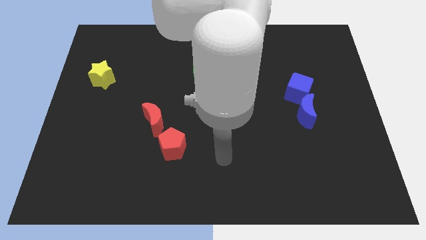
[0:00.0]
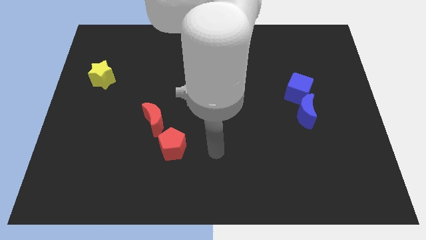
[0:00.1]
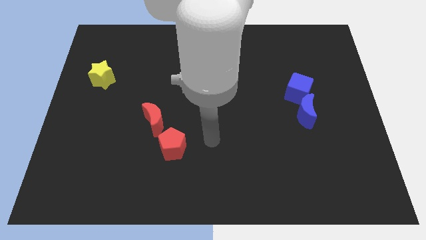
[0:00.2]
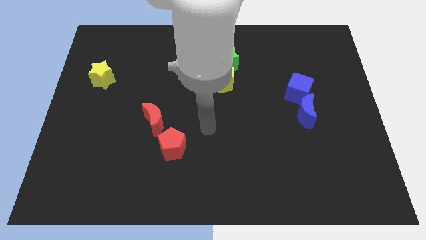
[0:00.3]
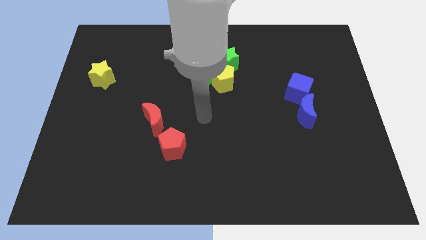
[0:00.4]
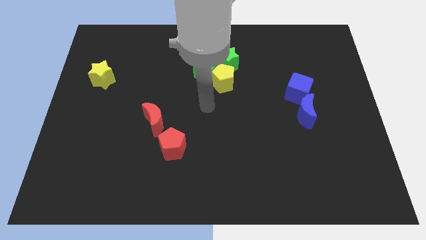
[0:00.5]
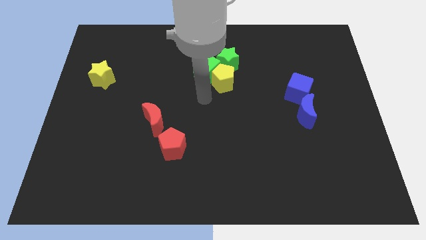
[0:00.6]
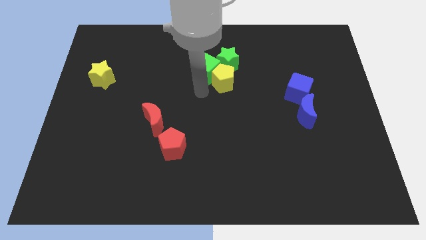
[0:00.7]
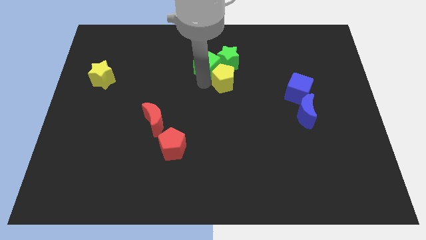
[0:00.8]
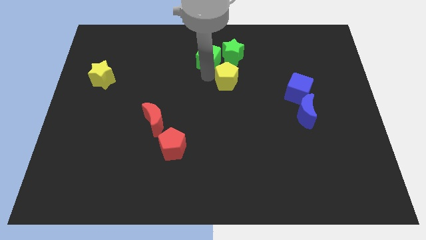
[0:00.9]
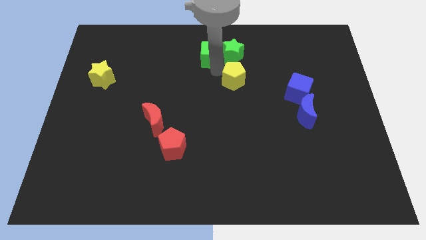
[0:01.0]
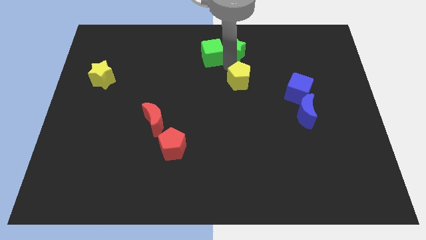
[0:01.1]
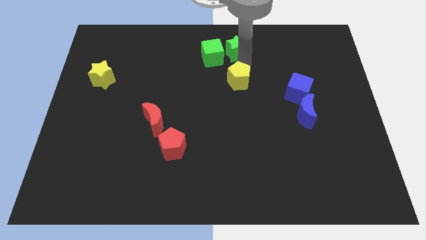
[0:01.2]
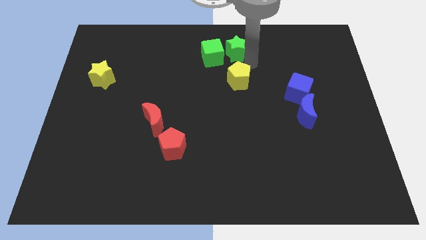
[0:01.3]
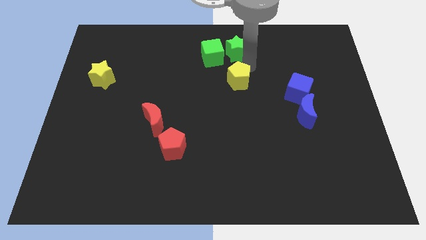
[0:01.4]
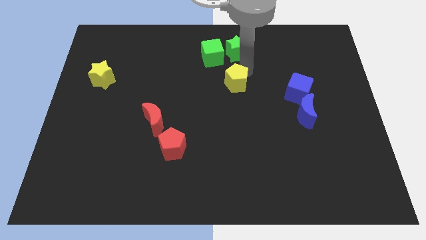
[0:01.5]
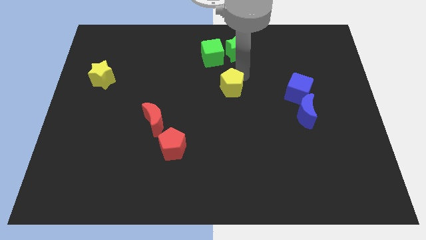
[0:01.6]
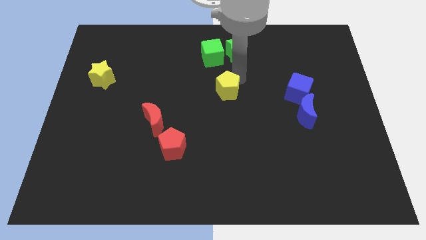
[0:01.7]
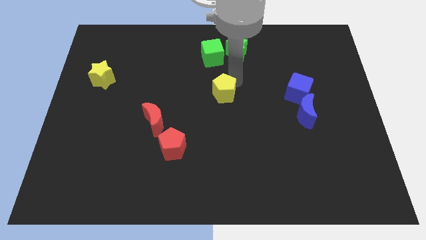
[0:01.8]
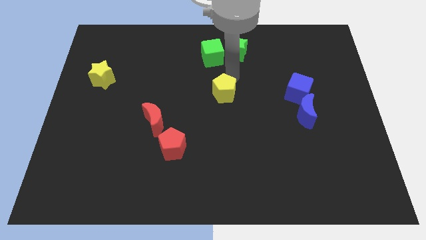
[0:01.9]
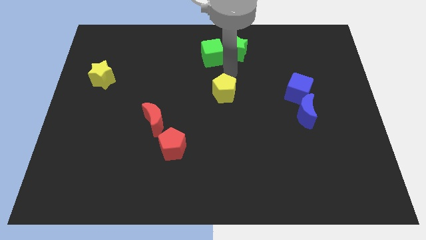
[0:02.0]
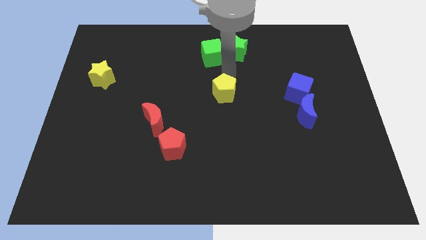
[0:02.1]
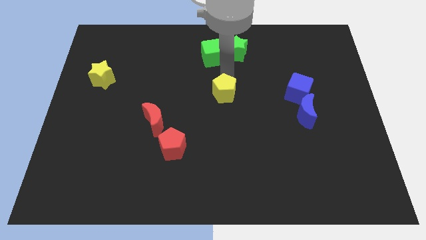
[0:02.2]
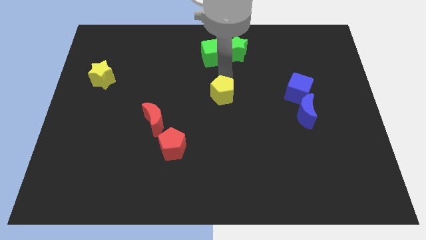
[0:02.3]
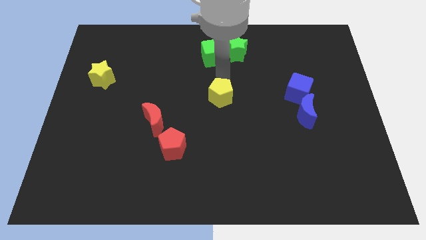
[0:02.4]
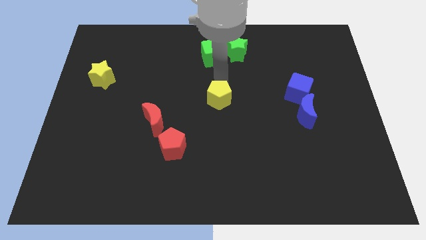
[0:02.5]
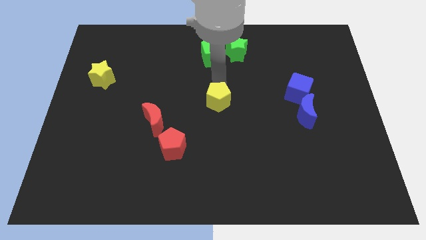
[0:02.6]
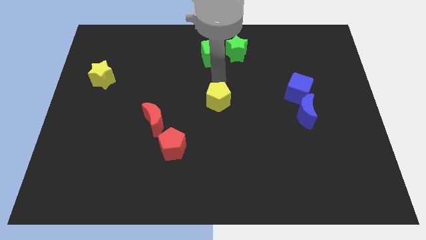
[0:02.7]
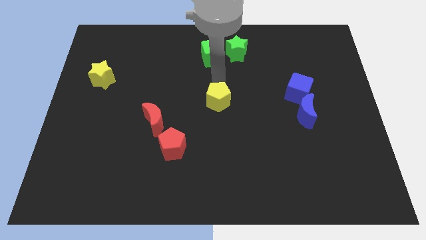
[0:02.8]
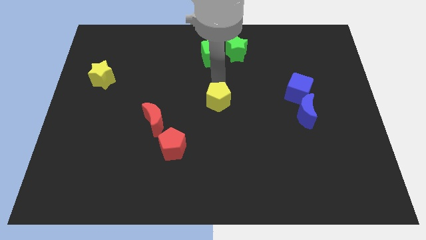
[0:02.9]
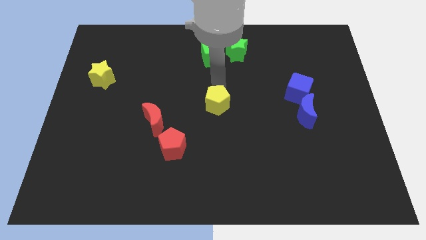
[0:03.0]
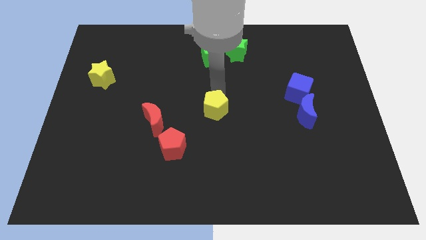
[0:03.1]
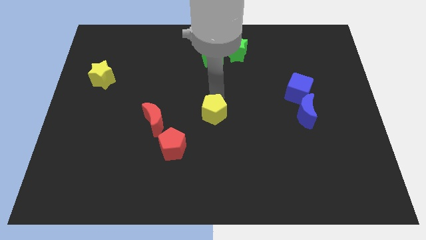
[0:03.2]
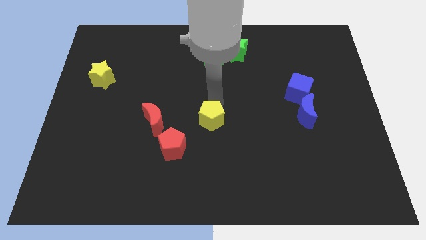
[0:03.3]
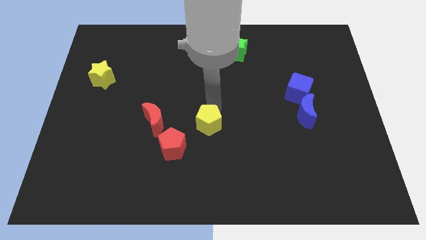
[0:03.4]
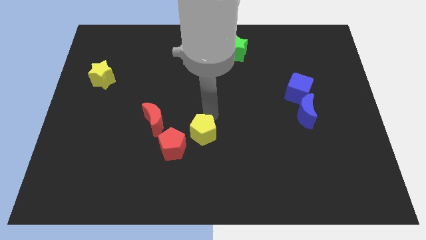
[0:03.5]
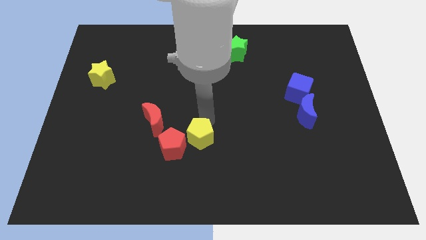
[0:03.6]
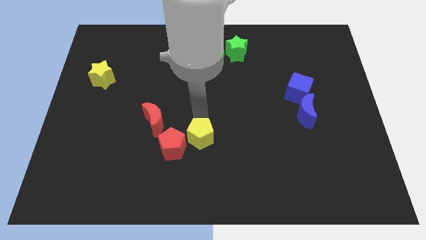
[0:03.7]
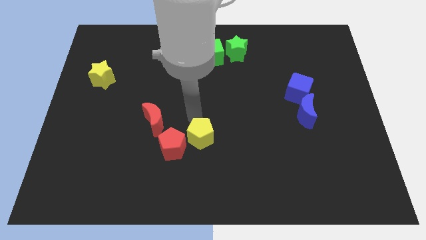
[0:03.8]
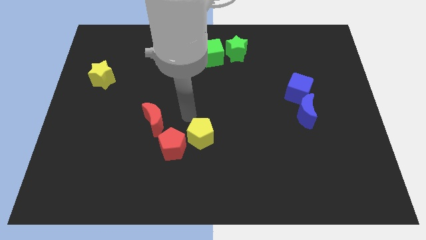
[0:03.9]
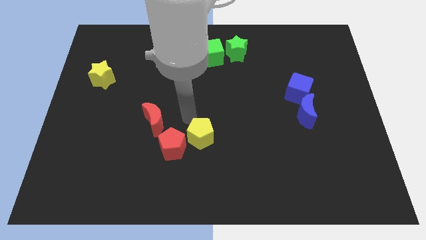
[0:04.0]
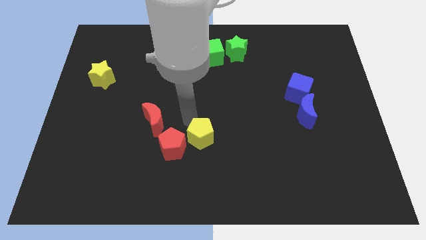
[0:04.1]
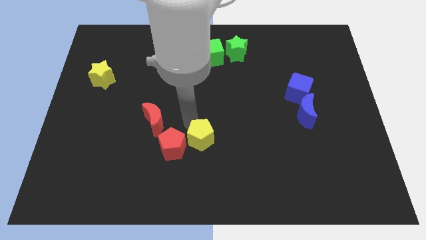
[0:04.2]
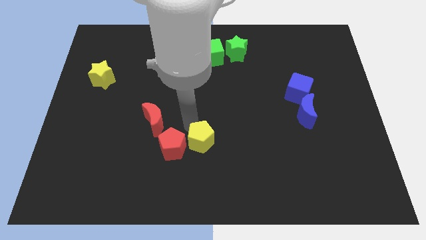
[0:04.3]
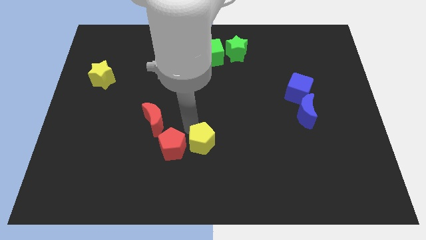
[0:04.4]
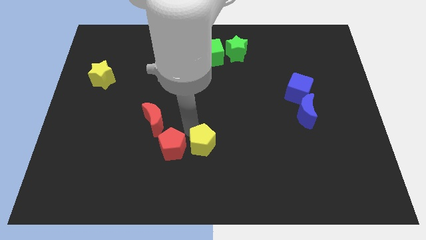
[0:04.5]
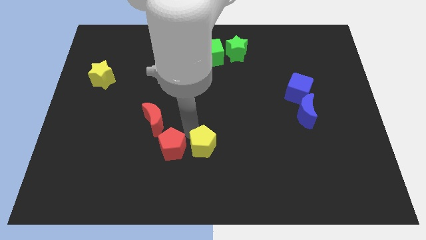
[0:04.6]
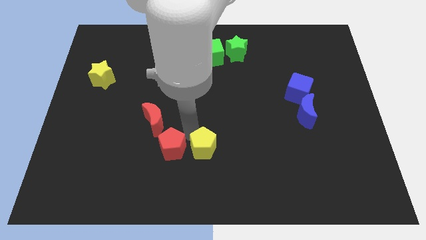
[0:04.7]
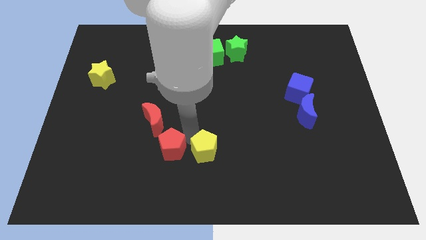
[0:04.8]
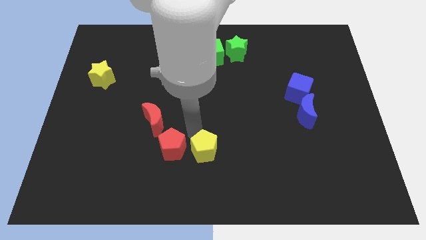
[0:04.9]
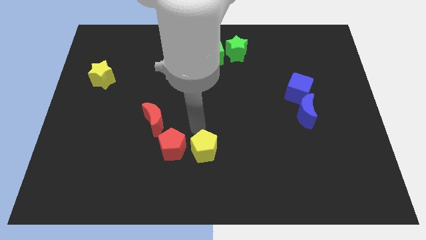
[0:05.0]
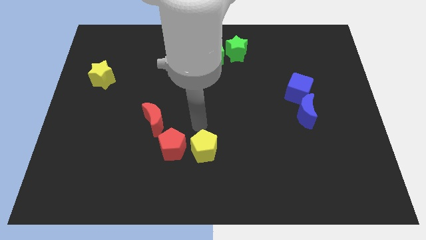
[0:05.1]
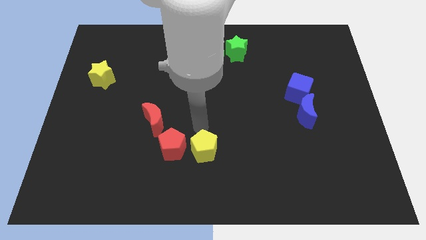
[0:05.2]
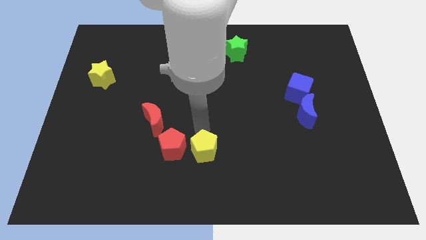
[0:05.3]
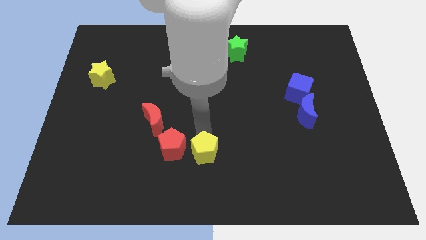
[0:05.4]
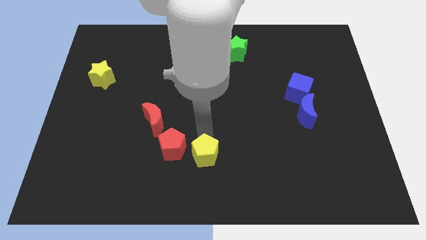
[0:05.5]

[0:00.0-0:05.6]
slide the yellow pentagon to the bottom side

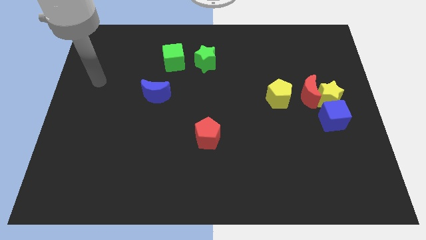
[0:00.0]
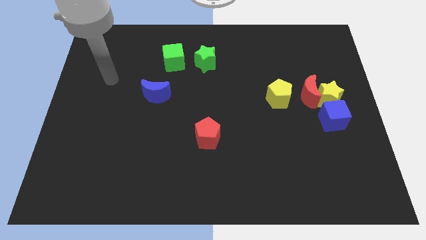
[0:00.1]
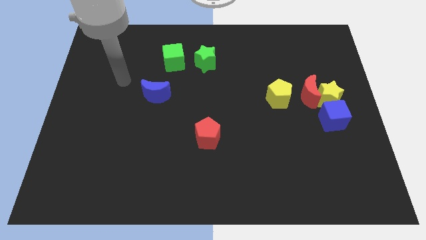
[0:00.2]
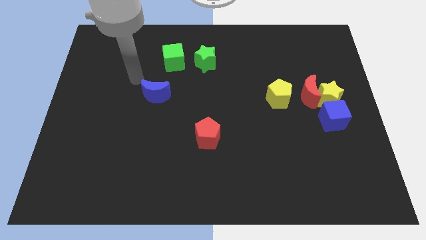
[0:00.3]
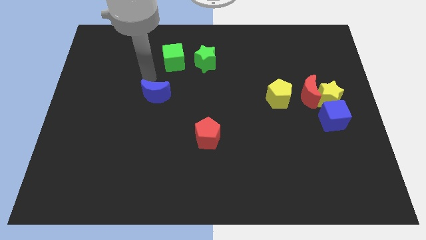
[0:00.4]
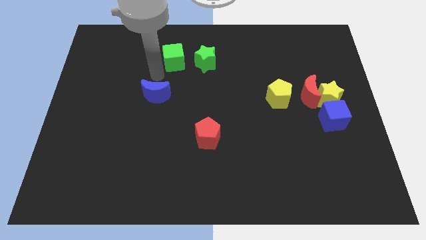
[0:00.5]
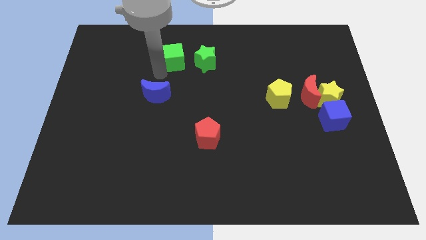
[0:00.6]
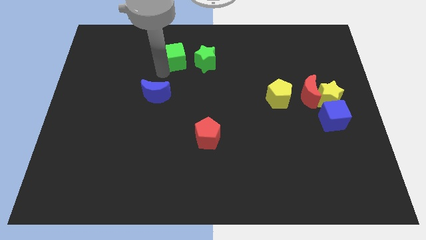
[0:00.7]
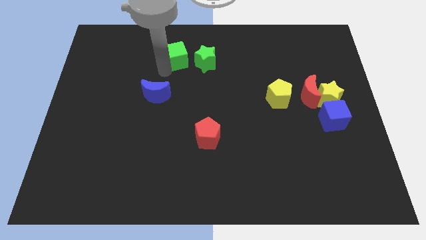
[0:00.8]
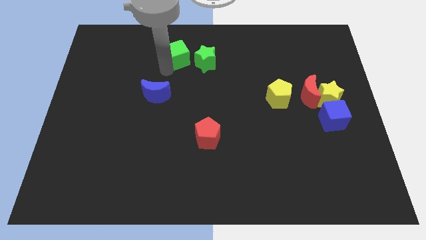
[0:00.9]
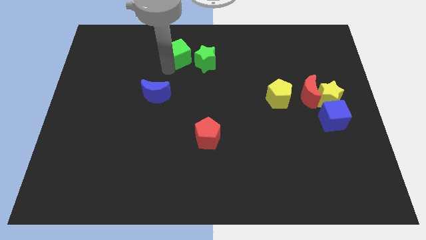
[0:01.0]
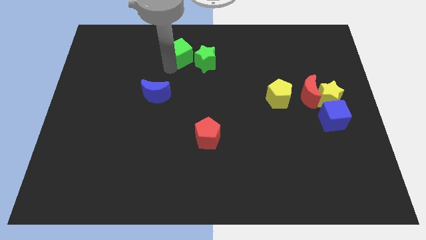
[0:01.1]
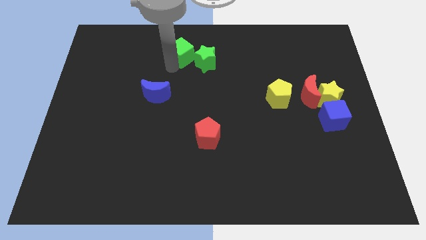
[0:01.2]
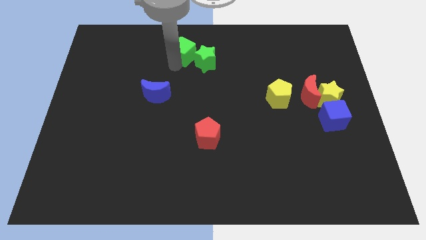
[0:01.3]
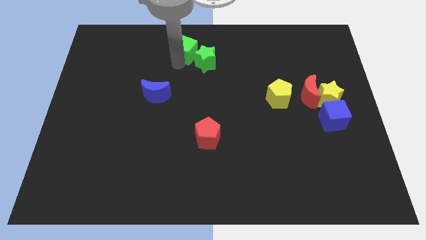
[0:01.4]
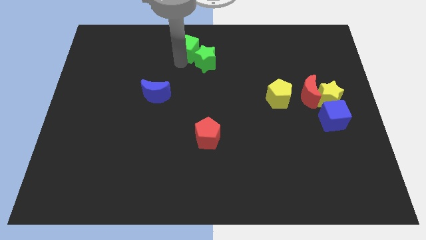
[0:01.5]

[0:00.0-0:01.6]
move the green cube to the towards your base
